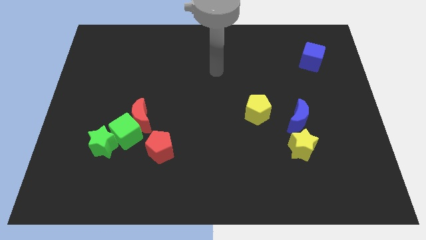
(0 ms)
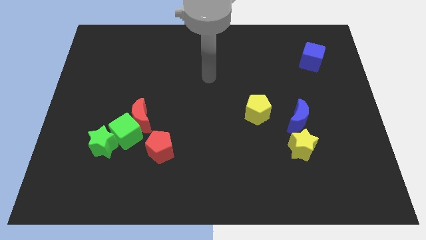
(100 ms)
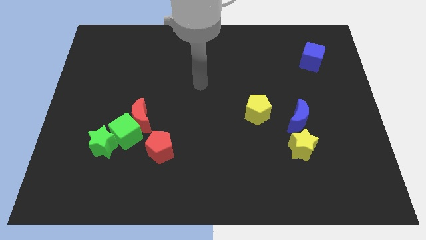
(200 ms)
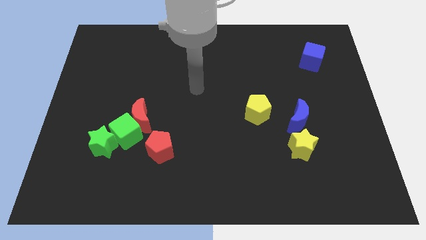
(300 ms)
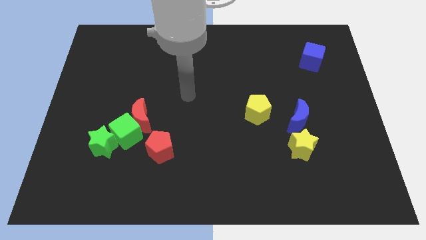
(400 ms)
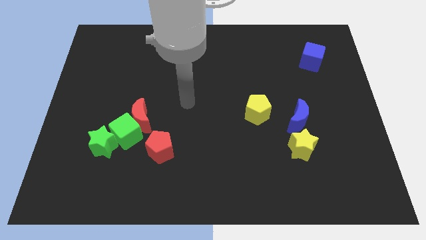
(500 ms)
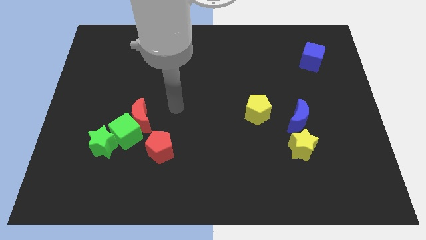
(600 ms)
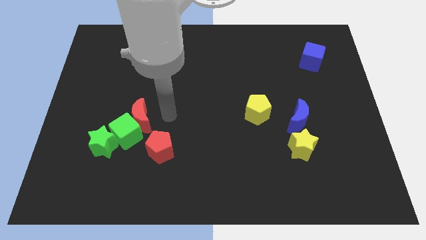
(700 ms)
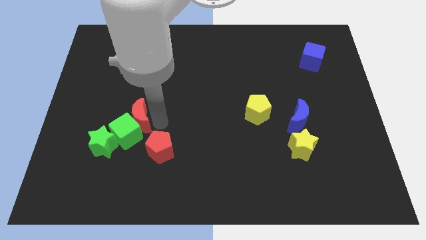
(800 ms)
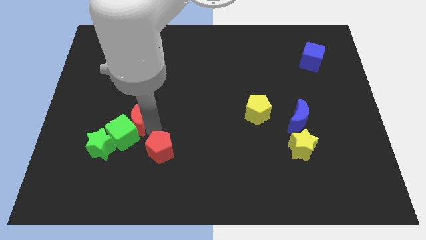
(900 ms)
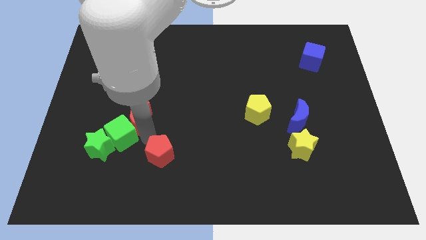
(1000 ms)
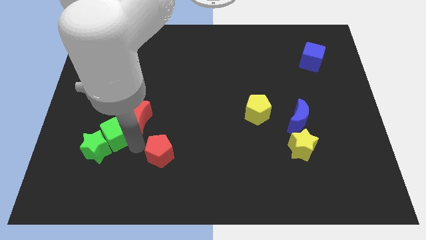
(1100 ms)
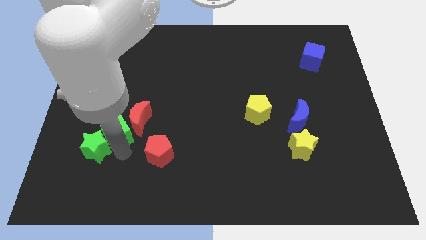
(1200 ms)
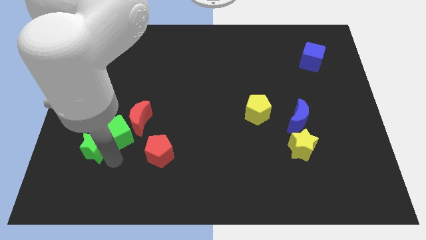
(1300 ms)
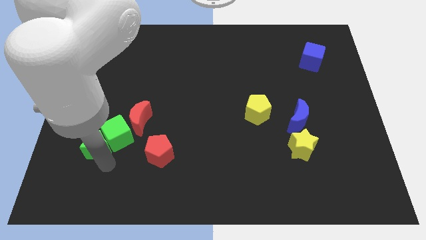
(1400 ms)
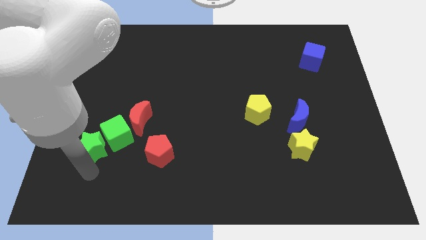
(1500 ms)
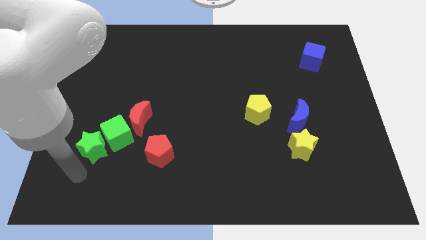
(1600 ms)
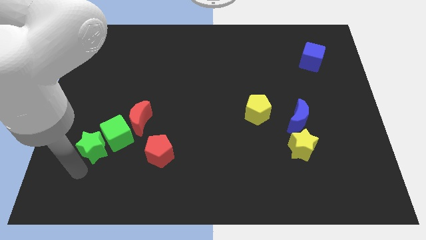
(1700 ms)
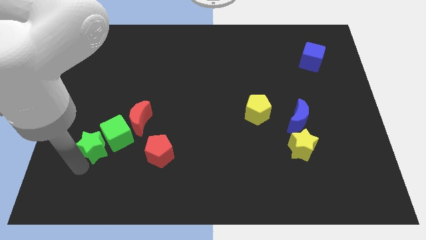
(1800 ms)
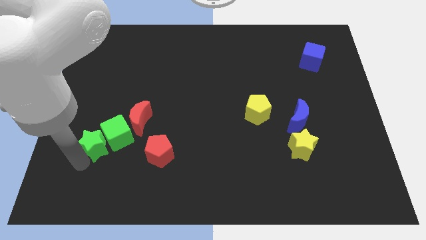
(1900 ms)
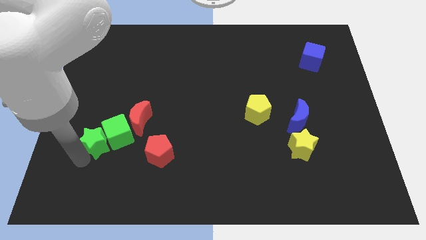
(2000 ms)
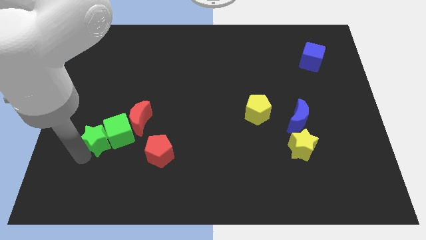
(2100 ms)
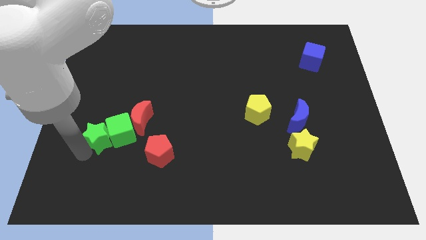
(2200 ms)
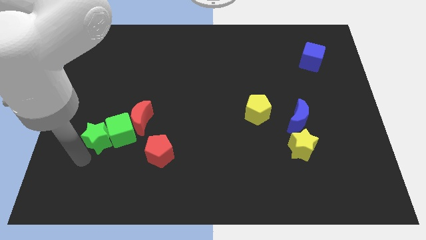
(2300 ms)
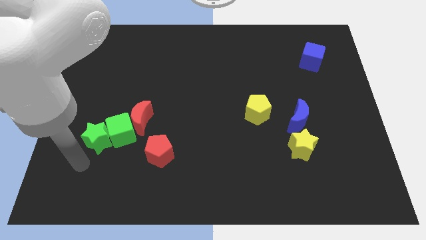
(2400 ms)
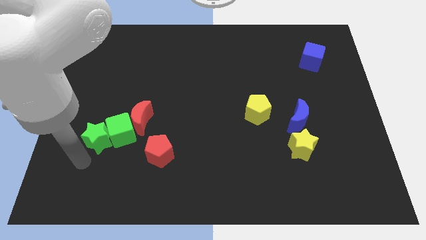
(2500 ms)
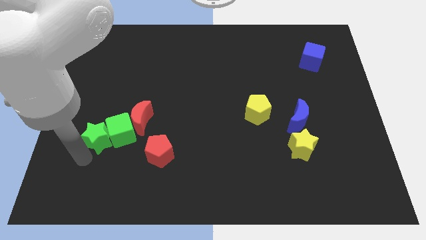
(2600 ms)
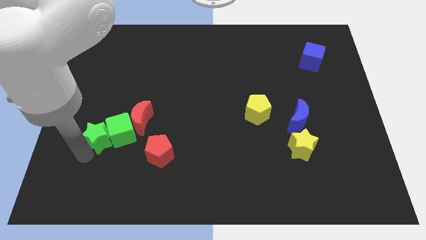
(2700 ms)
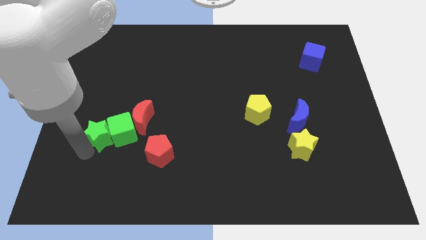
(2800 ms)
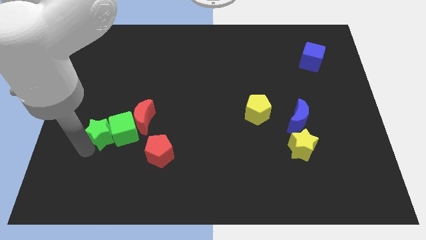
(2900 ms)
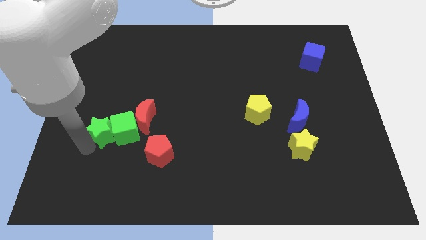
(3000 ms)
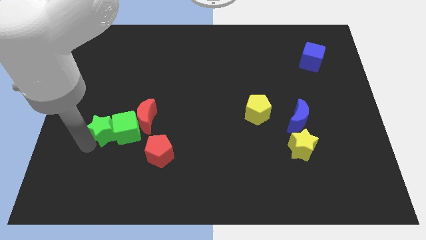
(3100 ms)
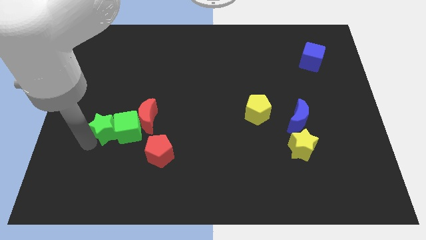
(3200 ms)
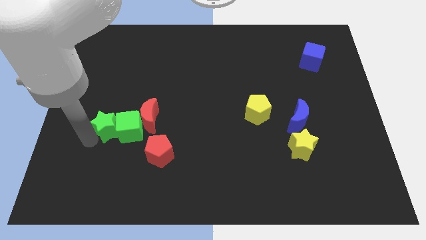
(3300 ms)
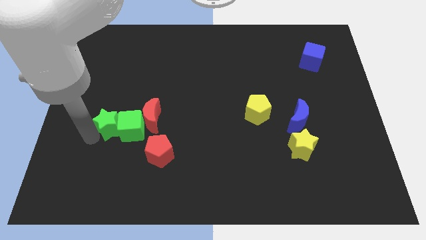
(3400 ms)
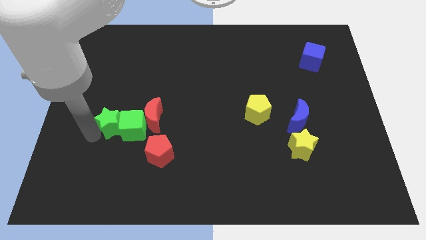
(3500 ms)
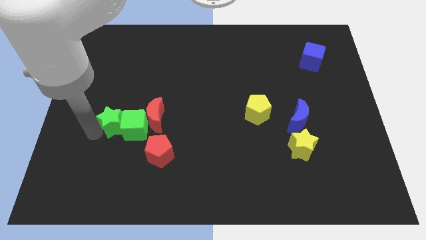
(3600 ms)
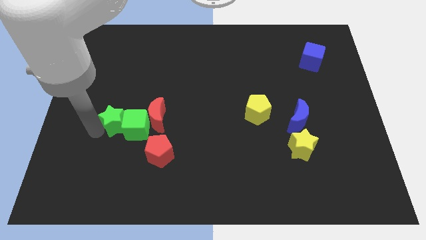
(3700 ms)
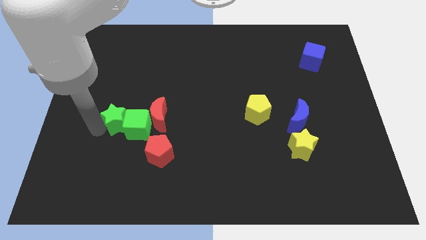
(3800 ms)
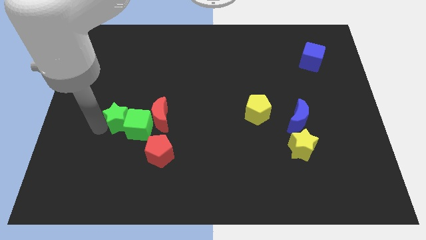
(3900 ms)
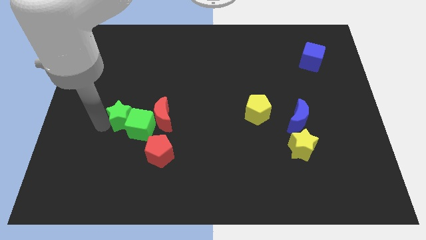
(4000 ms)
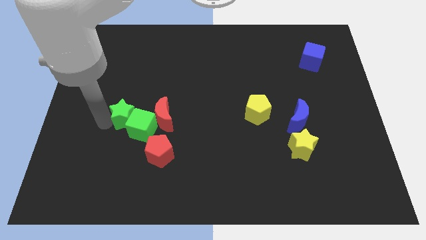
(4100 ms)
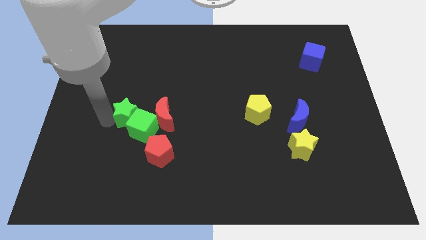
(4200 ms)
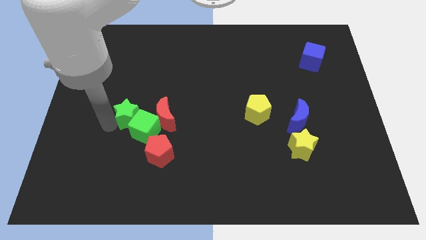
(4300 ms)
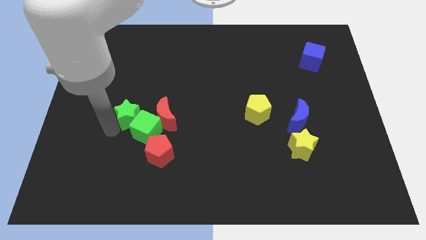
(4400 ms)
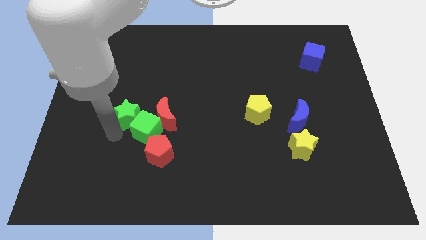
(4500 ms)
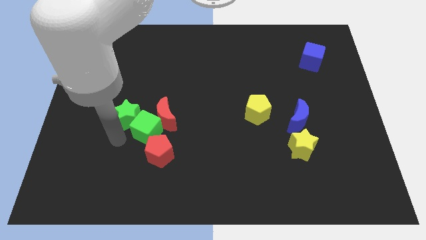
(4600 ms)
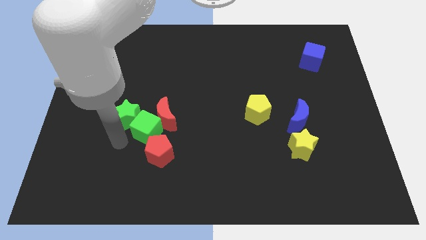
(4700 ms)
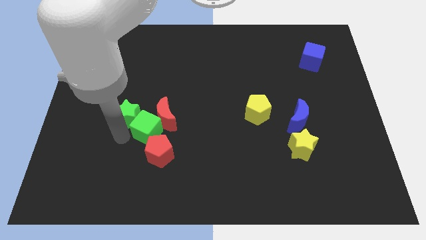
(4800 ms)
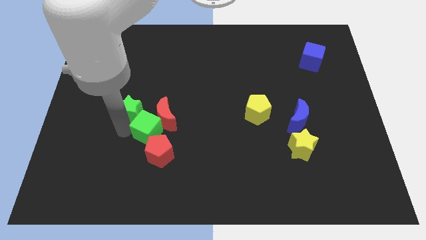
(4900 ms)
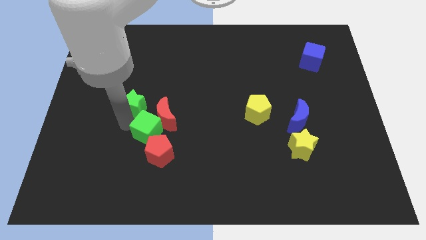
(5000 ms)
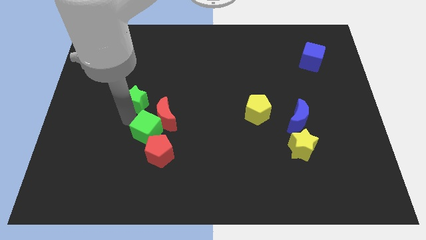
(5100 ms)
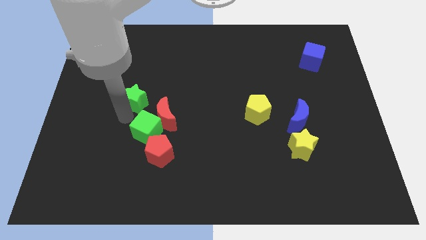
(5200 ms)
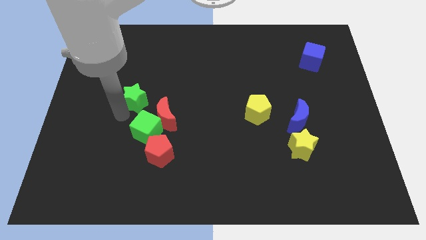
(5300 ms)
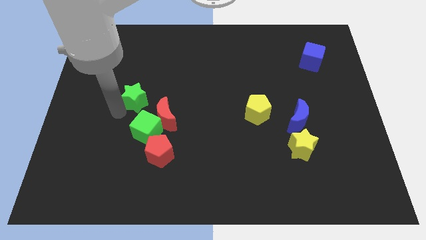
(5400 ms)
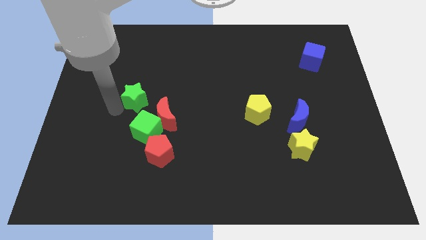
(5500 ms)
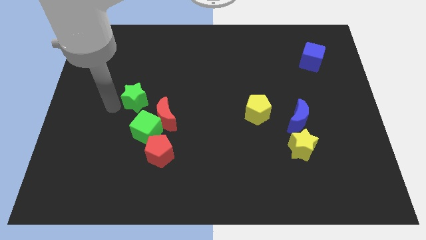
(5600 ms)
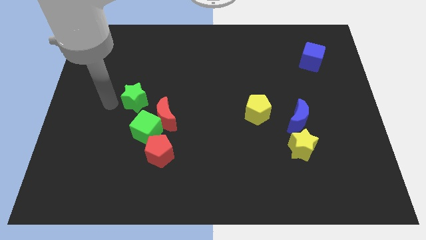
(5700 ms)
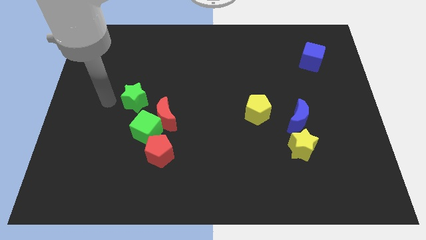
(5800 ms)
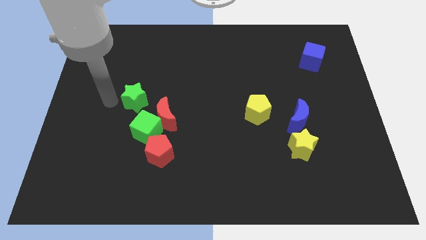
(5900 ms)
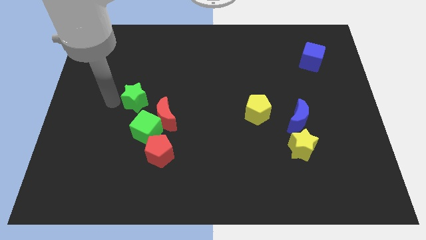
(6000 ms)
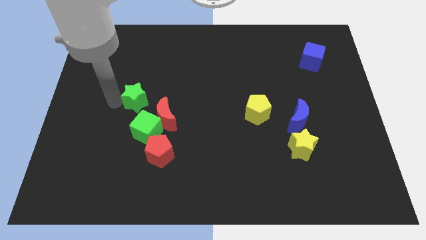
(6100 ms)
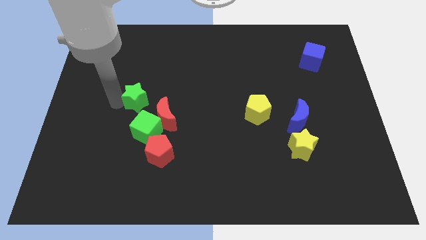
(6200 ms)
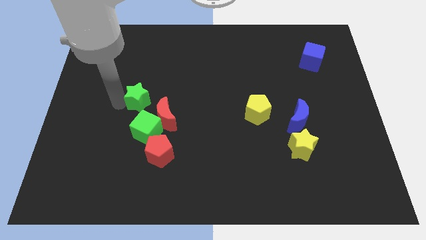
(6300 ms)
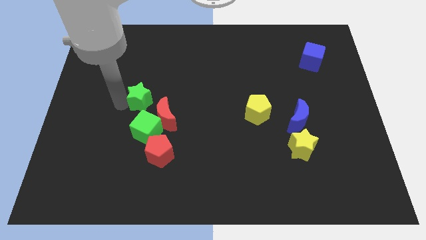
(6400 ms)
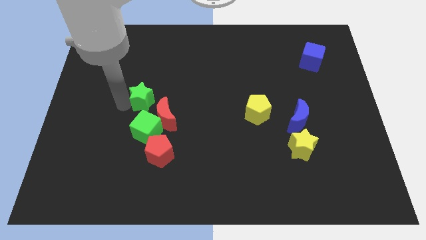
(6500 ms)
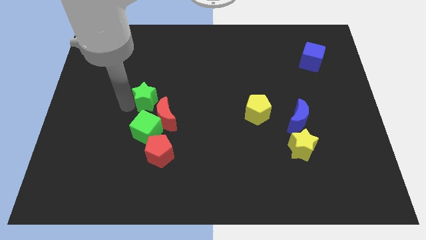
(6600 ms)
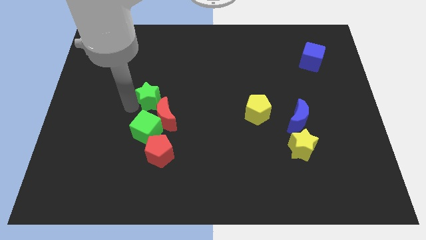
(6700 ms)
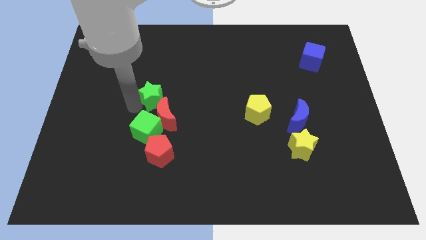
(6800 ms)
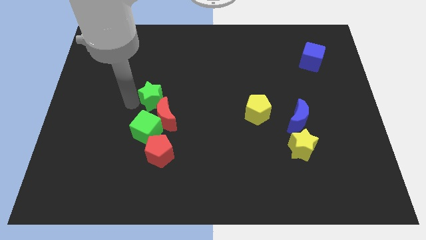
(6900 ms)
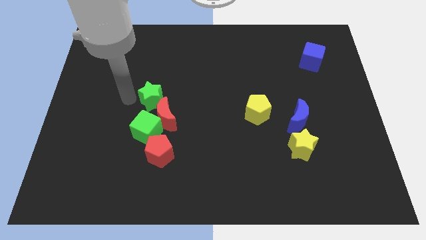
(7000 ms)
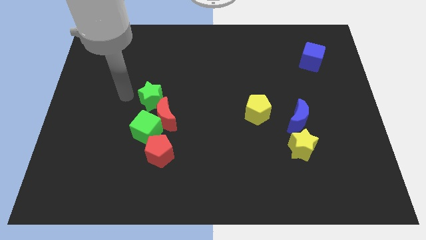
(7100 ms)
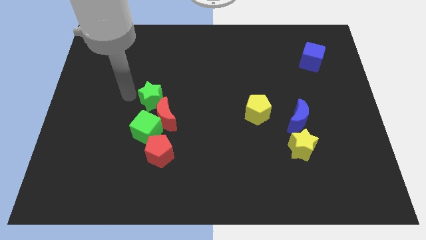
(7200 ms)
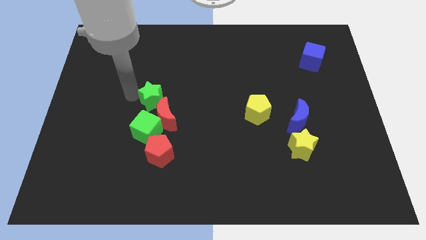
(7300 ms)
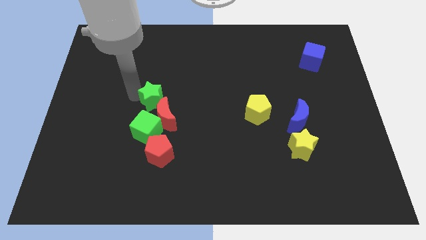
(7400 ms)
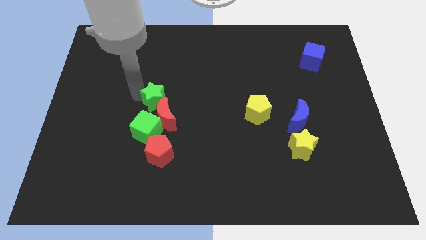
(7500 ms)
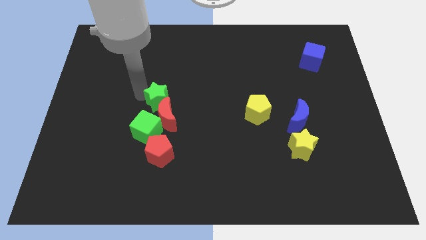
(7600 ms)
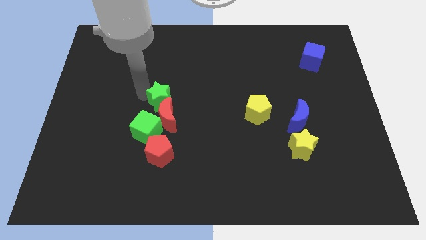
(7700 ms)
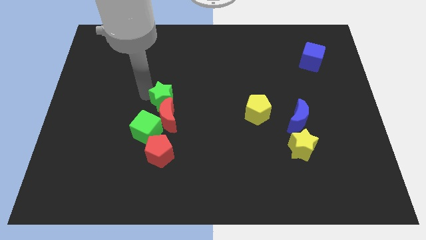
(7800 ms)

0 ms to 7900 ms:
put the green star to the center of the board
